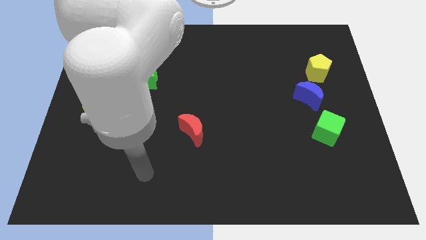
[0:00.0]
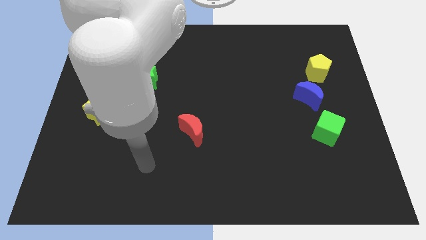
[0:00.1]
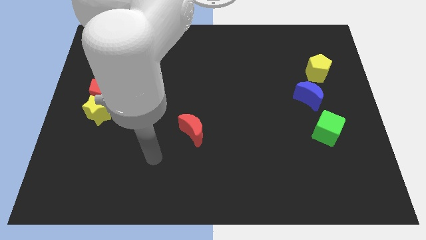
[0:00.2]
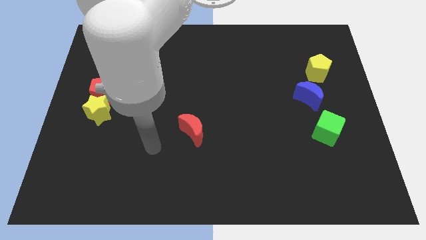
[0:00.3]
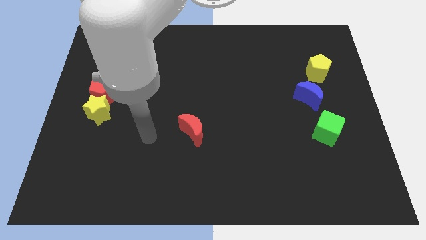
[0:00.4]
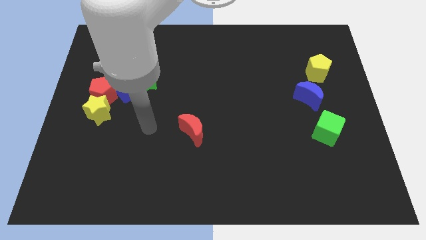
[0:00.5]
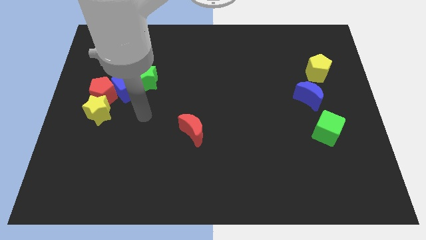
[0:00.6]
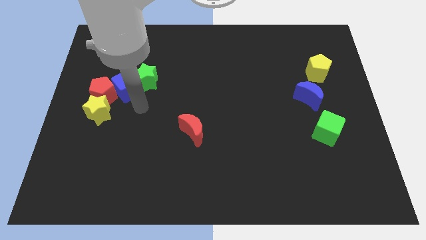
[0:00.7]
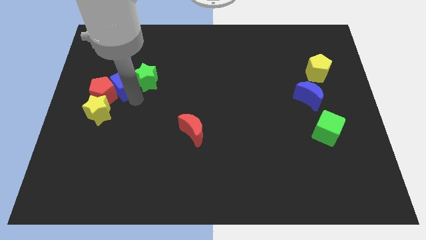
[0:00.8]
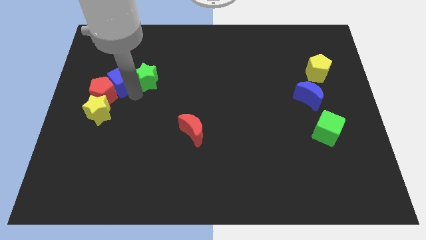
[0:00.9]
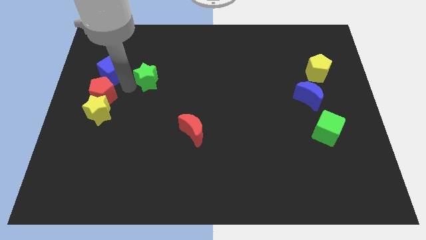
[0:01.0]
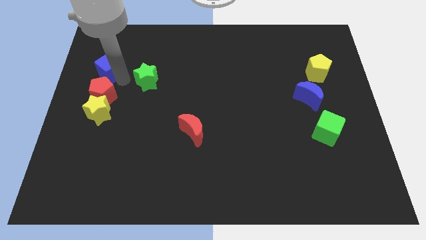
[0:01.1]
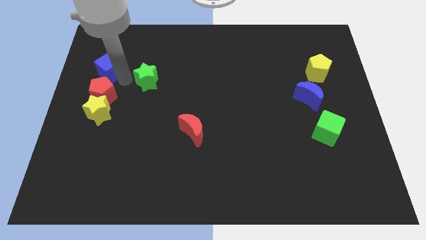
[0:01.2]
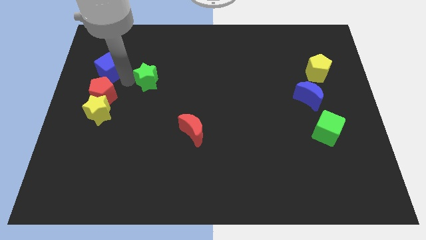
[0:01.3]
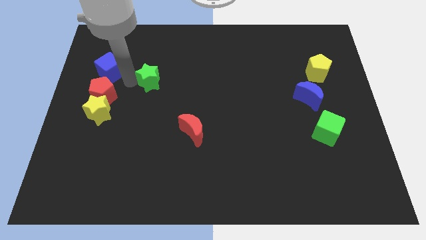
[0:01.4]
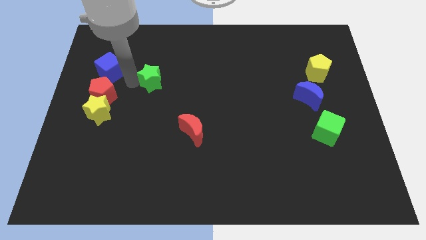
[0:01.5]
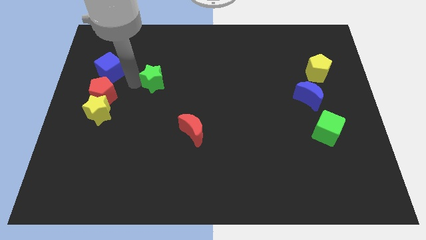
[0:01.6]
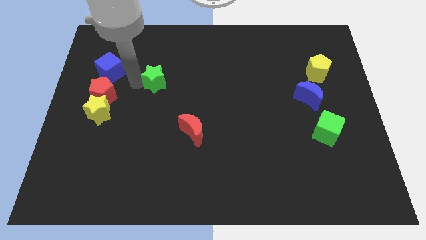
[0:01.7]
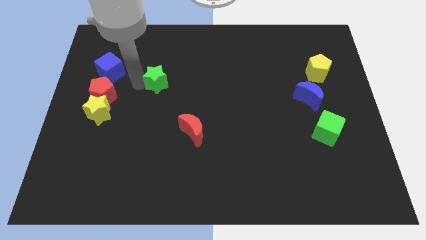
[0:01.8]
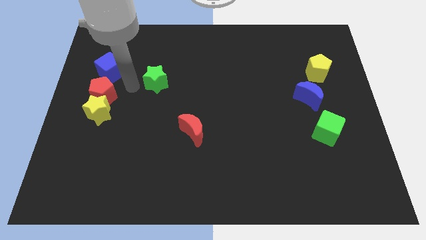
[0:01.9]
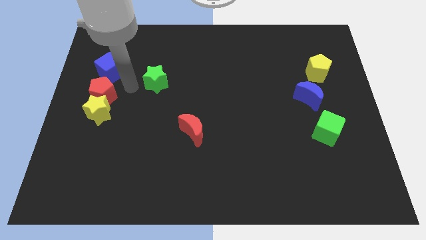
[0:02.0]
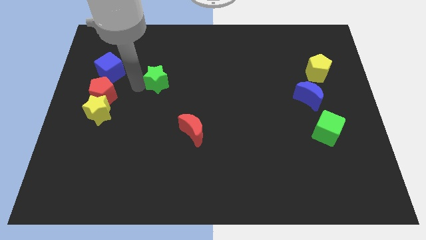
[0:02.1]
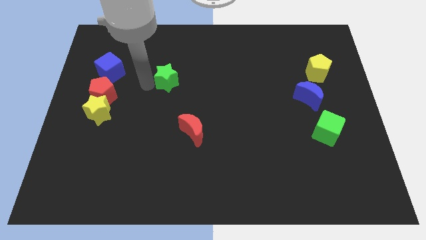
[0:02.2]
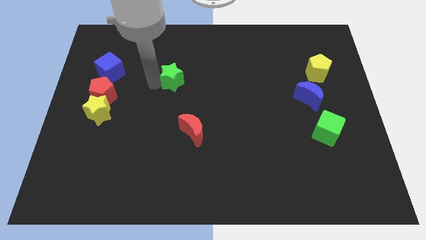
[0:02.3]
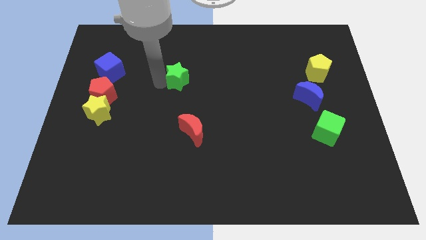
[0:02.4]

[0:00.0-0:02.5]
move the green star a little bit right

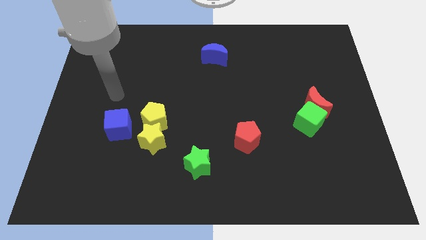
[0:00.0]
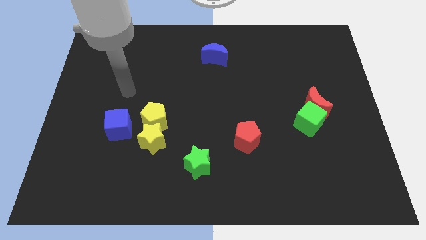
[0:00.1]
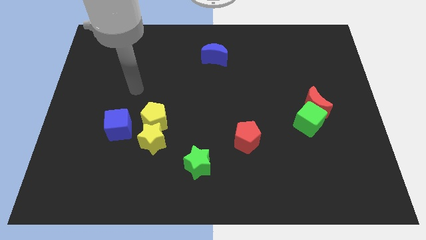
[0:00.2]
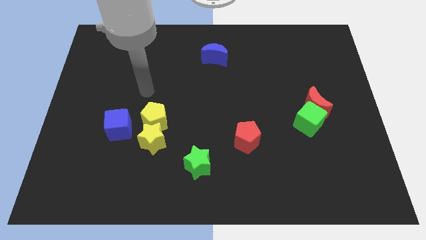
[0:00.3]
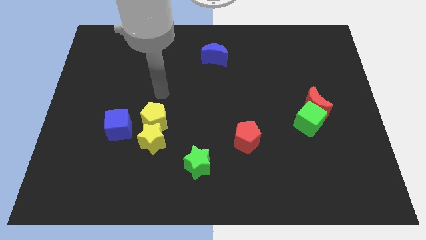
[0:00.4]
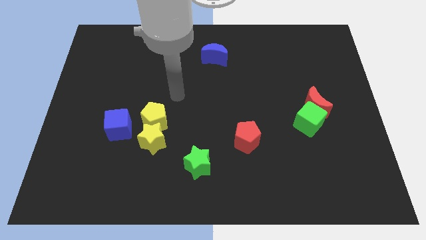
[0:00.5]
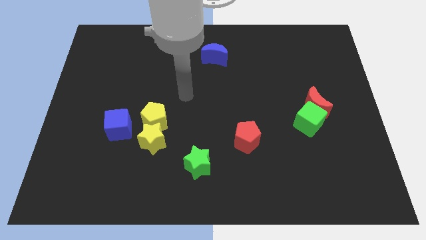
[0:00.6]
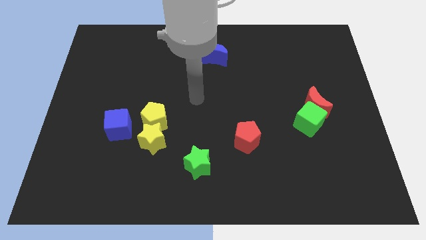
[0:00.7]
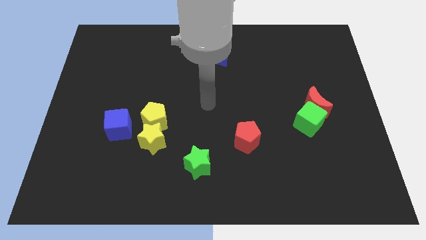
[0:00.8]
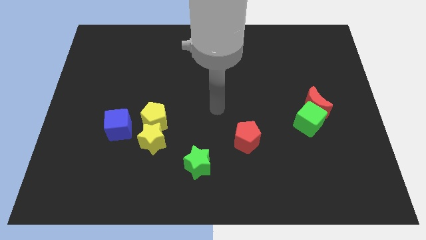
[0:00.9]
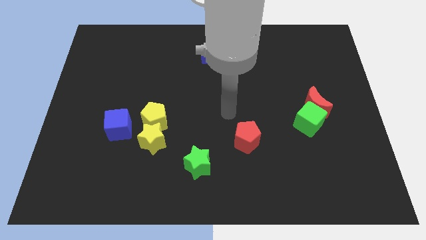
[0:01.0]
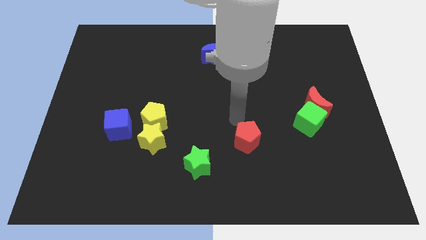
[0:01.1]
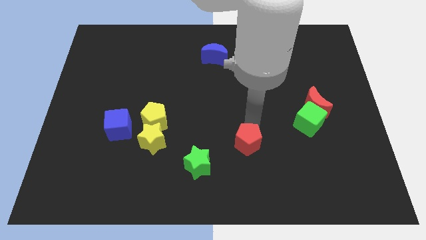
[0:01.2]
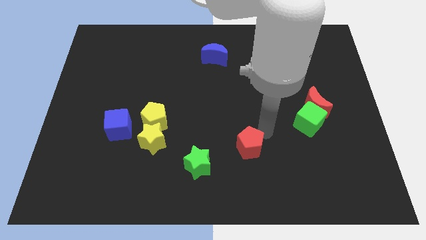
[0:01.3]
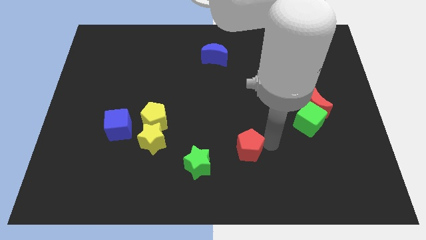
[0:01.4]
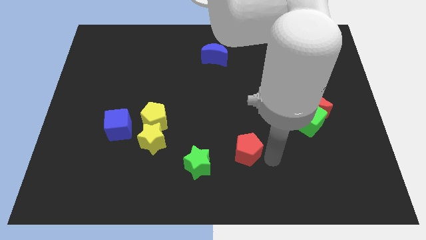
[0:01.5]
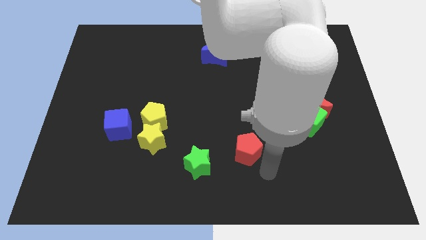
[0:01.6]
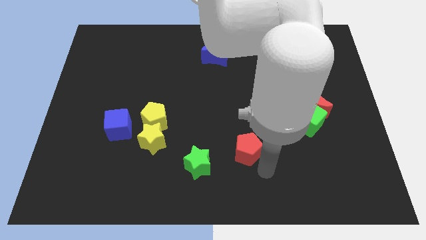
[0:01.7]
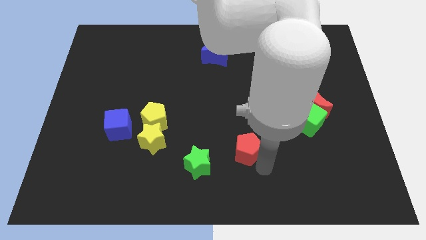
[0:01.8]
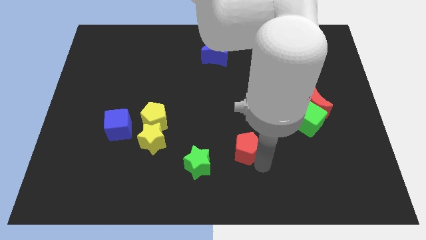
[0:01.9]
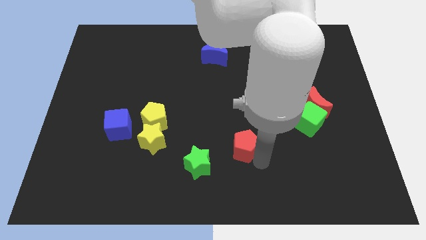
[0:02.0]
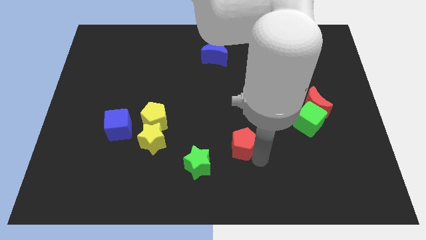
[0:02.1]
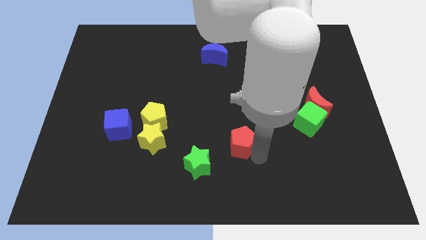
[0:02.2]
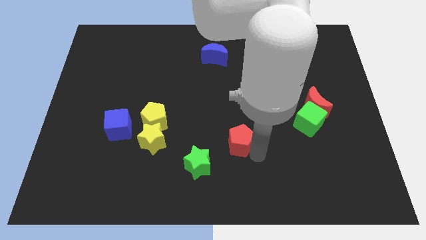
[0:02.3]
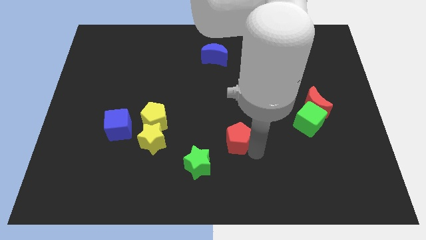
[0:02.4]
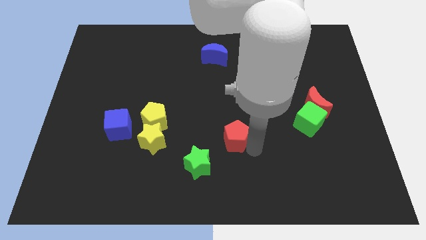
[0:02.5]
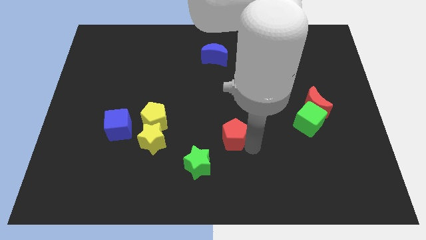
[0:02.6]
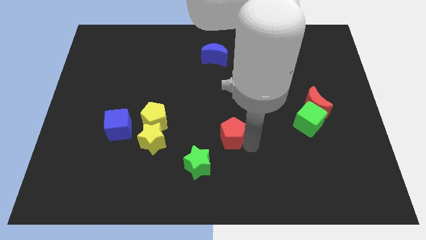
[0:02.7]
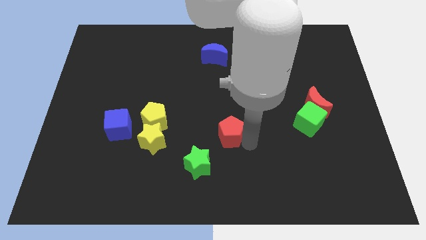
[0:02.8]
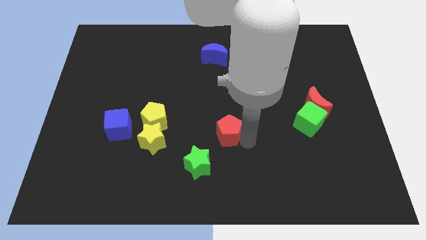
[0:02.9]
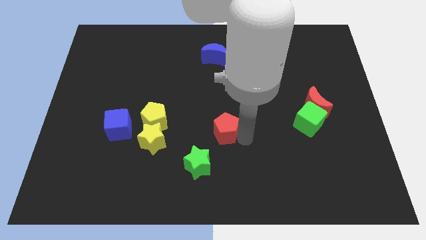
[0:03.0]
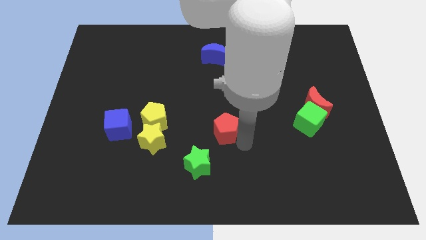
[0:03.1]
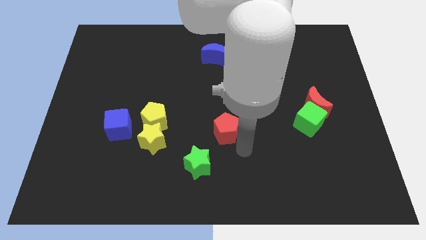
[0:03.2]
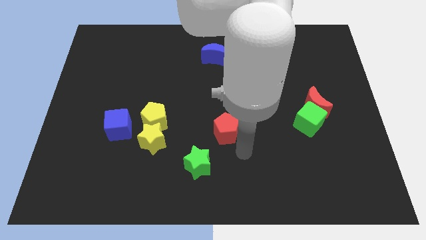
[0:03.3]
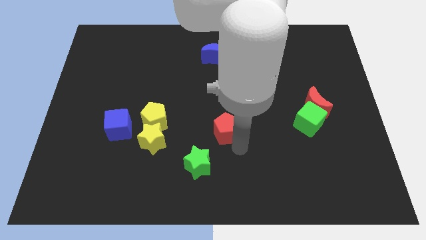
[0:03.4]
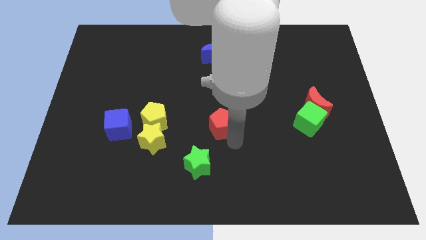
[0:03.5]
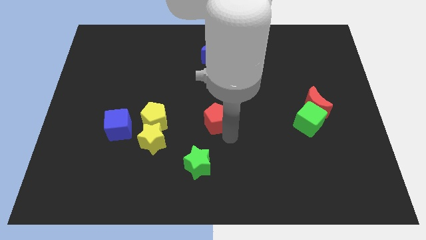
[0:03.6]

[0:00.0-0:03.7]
slightly slide the red pentagon upwards and to the left diagonally

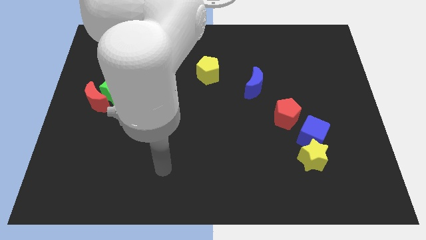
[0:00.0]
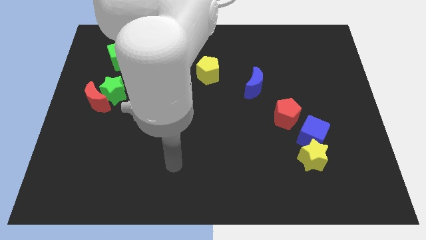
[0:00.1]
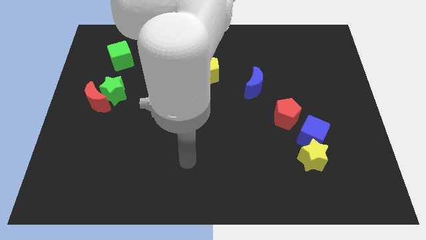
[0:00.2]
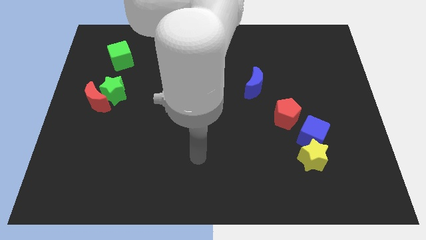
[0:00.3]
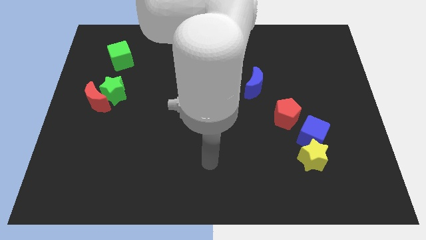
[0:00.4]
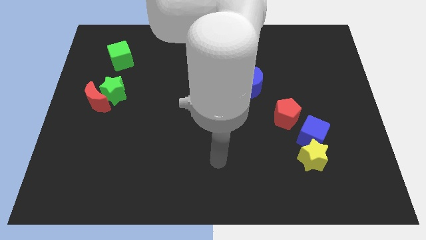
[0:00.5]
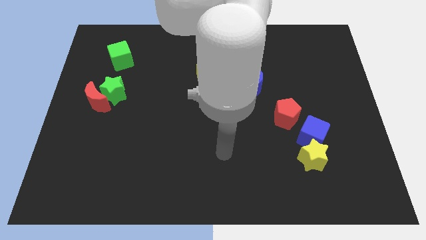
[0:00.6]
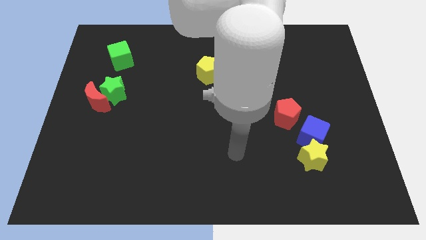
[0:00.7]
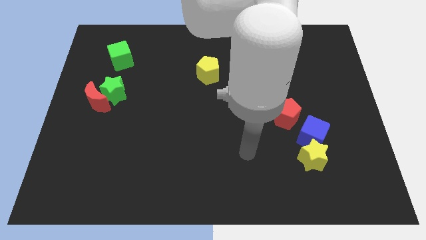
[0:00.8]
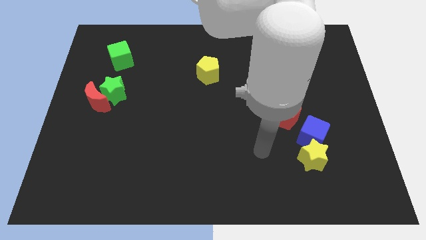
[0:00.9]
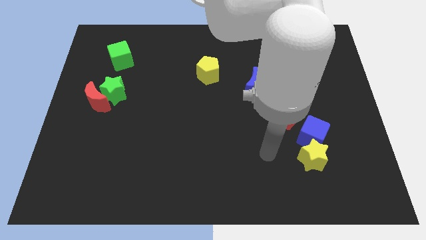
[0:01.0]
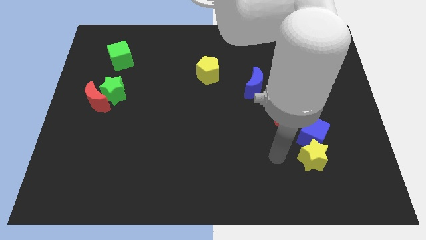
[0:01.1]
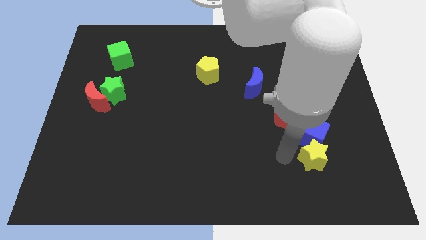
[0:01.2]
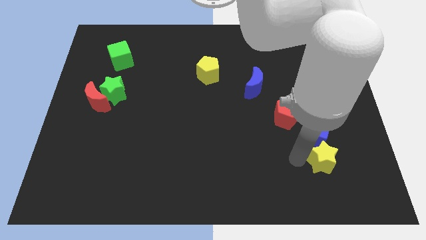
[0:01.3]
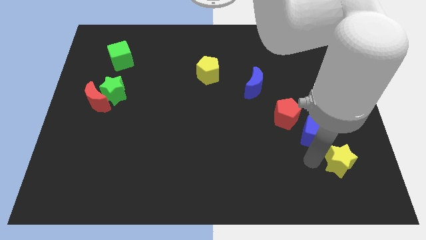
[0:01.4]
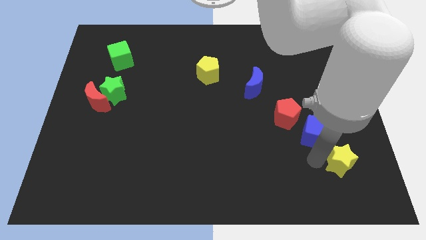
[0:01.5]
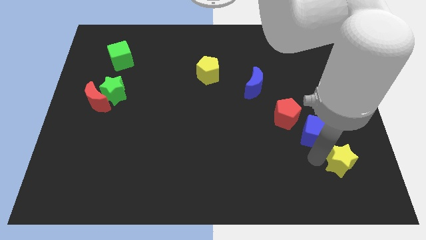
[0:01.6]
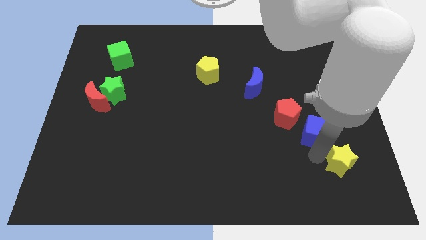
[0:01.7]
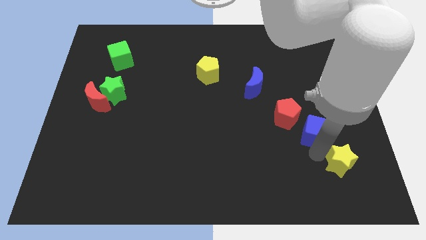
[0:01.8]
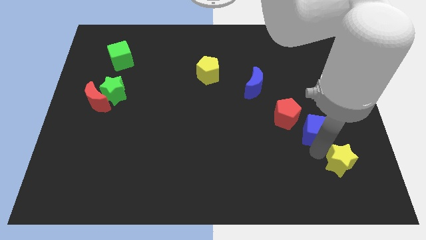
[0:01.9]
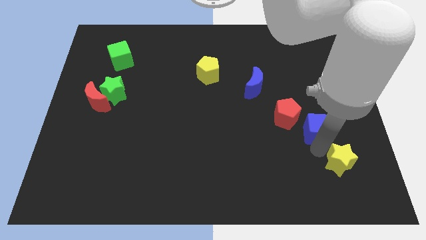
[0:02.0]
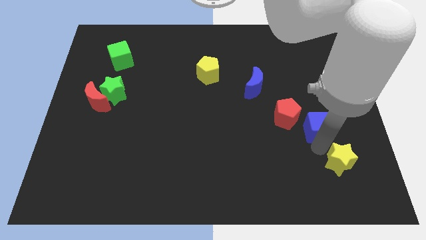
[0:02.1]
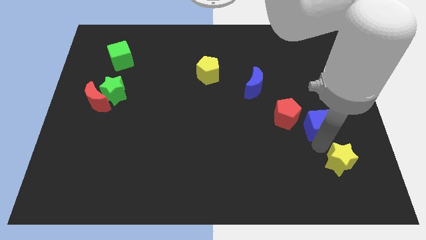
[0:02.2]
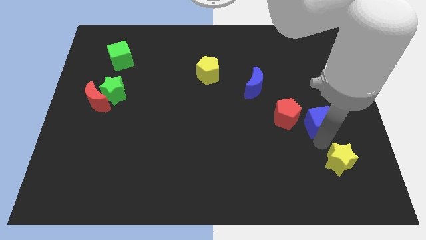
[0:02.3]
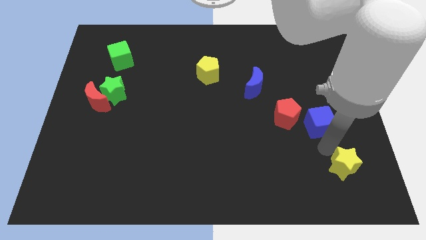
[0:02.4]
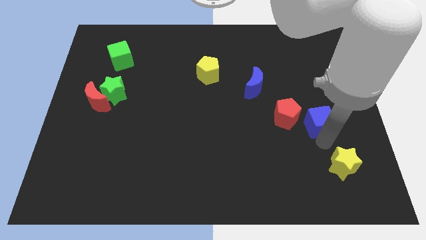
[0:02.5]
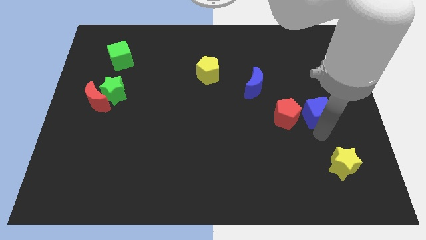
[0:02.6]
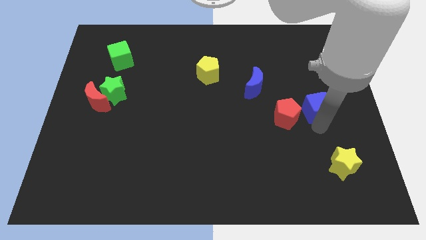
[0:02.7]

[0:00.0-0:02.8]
move the blue cube a bit up
